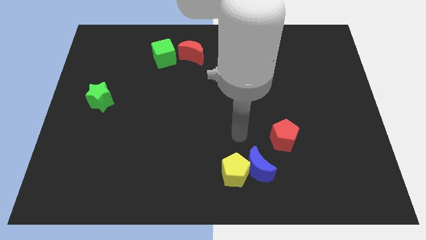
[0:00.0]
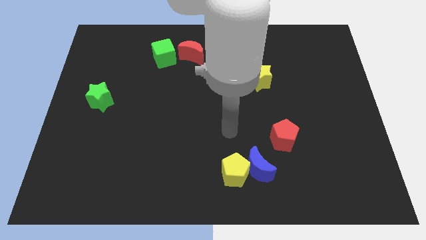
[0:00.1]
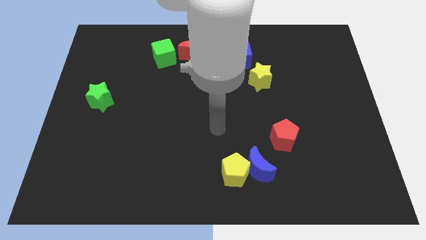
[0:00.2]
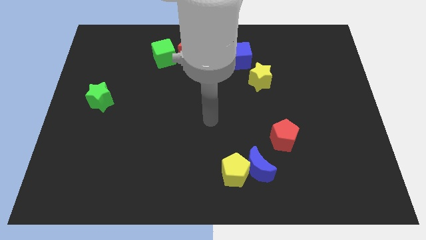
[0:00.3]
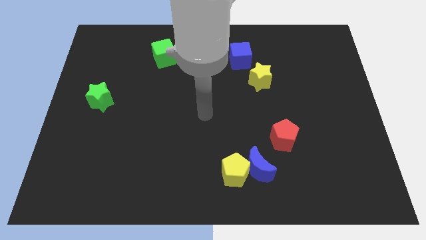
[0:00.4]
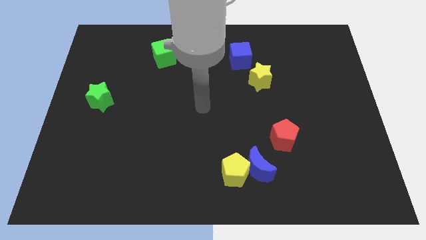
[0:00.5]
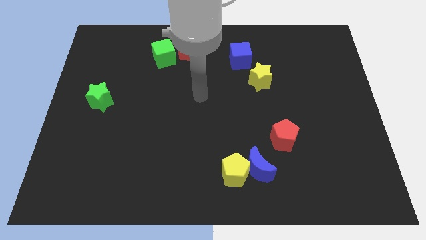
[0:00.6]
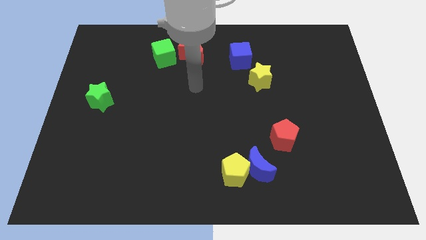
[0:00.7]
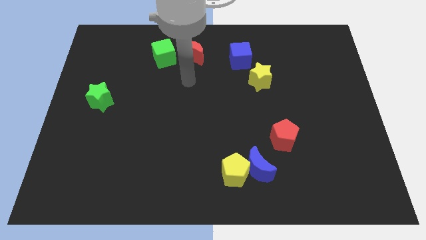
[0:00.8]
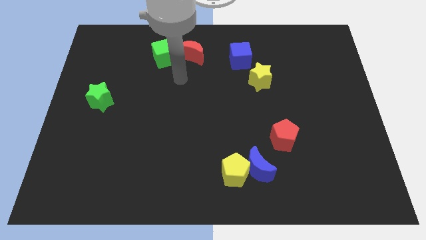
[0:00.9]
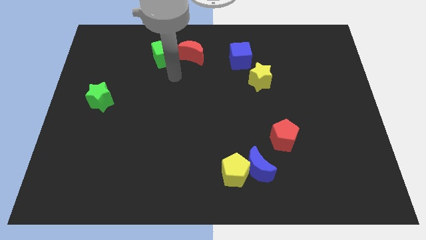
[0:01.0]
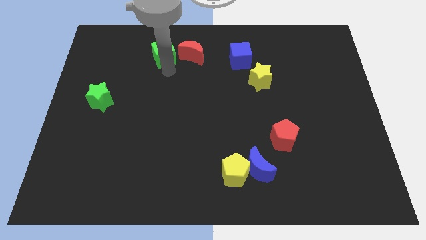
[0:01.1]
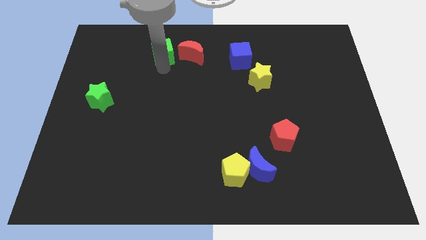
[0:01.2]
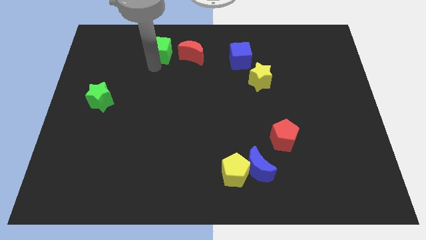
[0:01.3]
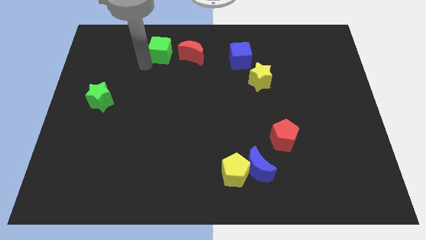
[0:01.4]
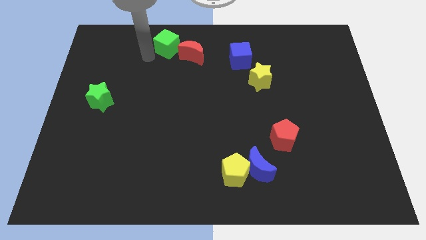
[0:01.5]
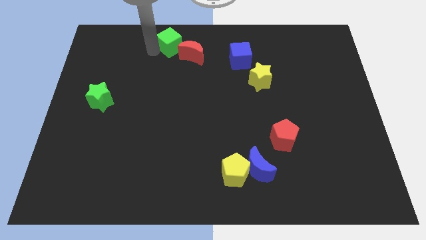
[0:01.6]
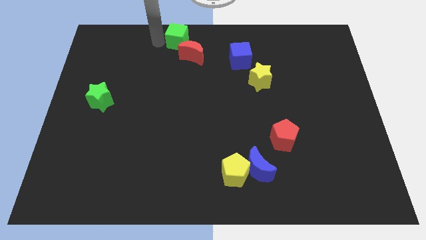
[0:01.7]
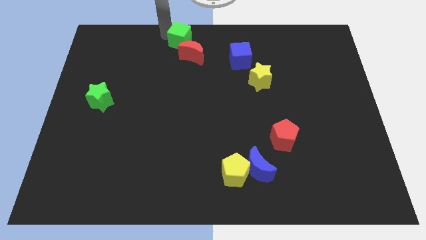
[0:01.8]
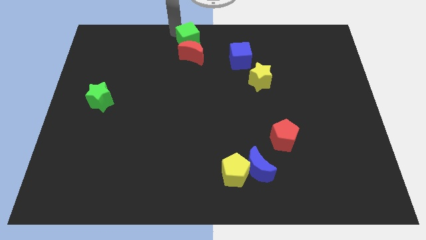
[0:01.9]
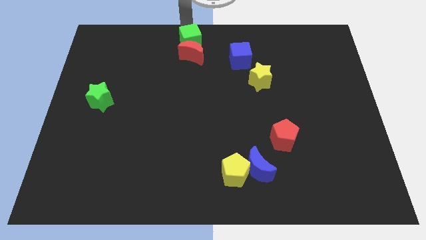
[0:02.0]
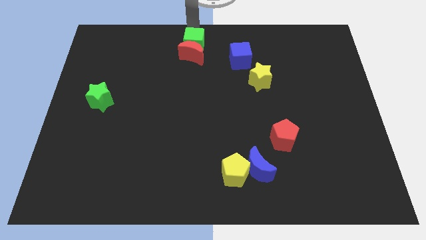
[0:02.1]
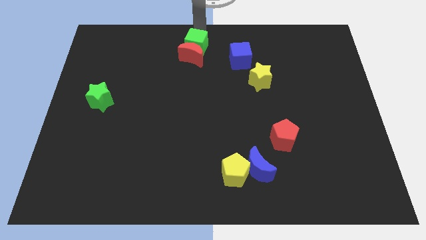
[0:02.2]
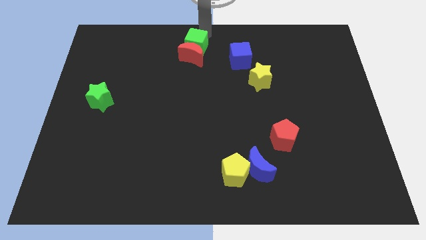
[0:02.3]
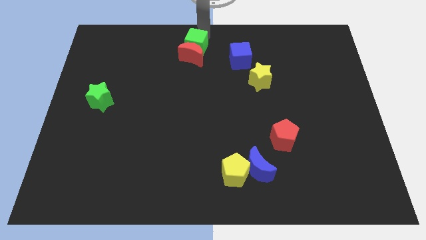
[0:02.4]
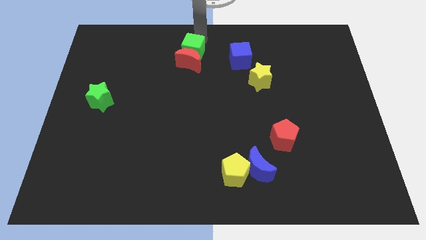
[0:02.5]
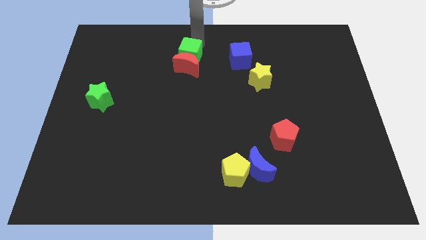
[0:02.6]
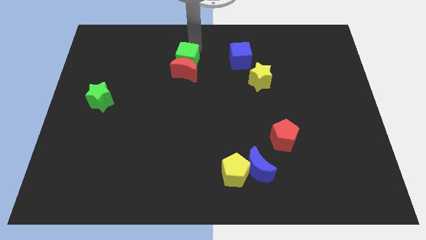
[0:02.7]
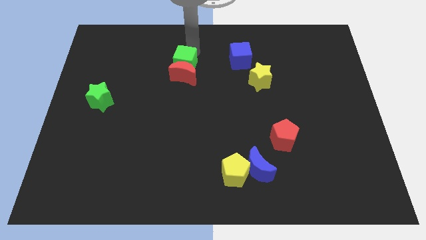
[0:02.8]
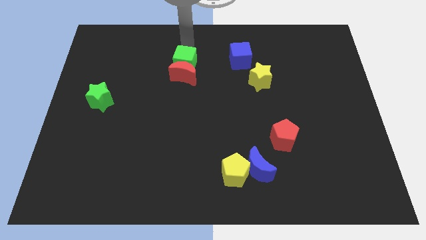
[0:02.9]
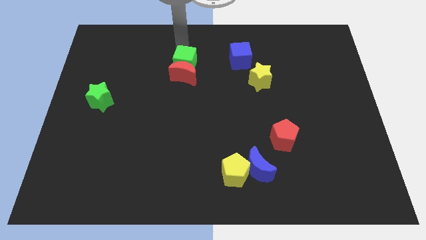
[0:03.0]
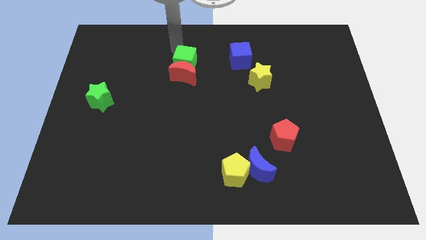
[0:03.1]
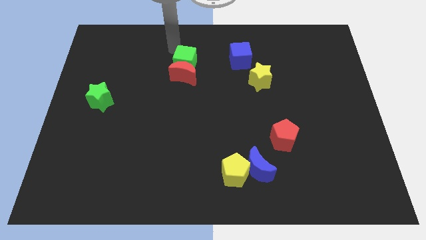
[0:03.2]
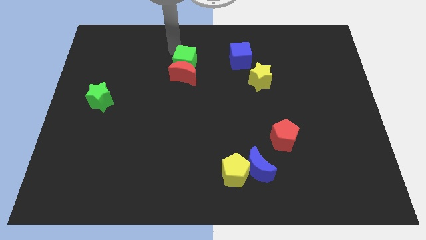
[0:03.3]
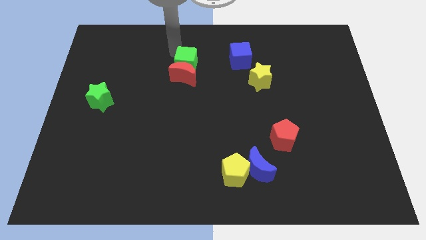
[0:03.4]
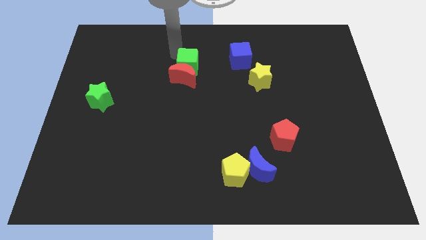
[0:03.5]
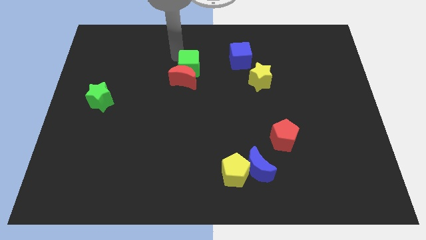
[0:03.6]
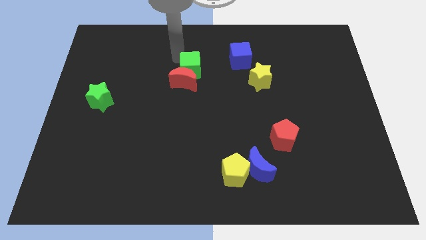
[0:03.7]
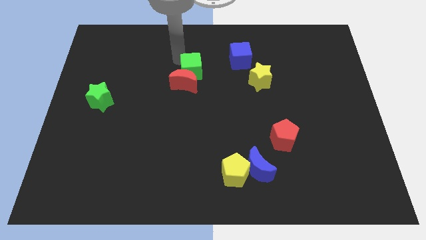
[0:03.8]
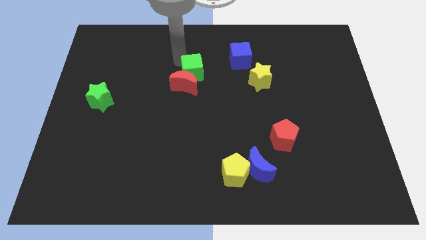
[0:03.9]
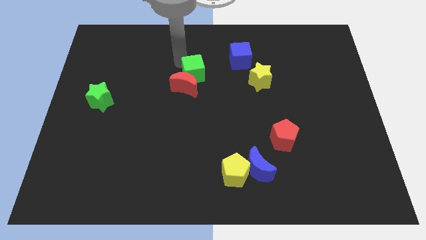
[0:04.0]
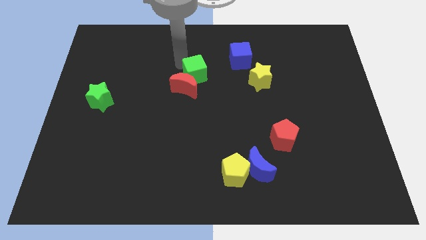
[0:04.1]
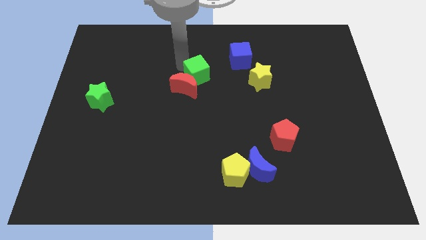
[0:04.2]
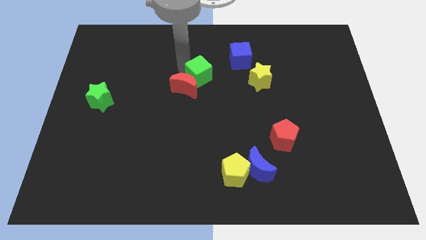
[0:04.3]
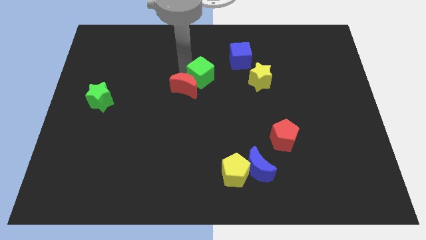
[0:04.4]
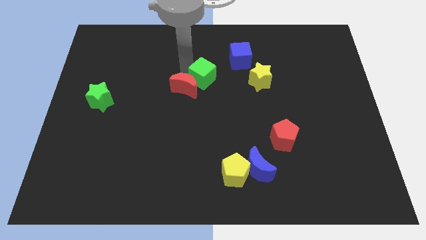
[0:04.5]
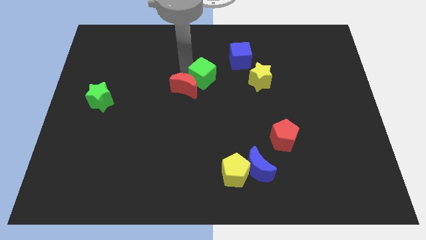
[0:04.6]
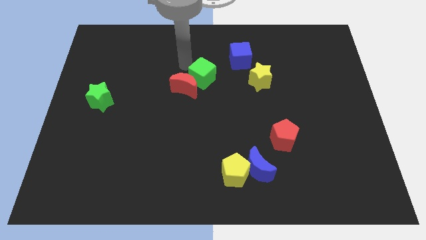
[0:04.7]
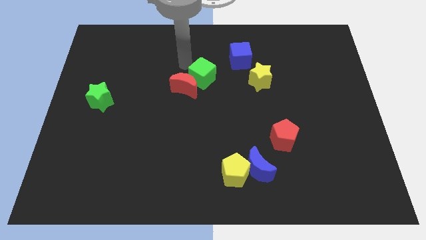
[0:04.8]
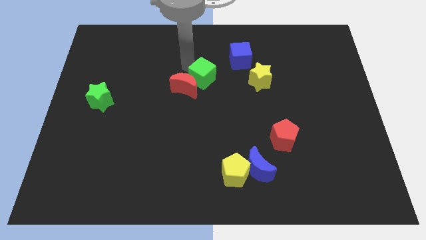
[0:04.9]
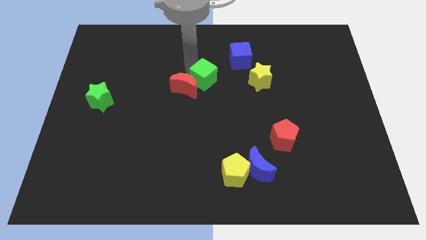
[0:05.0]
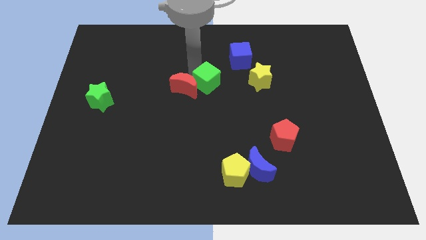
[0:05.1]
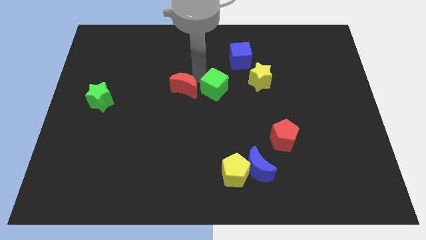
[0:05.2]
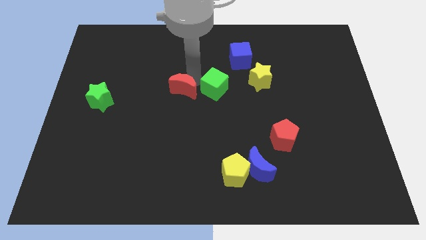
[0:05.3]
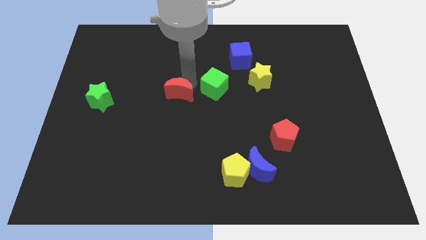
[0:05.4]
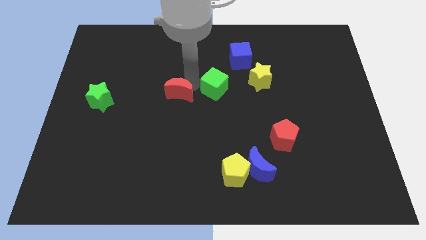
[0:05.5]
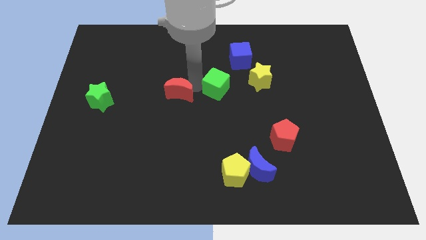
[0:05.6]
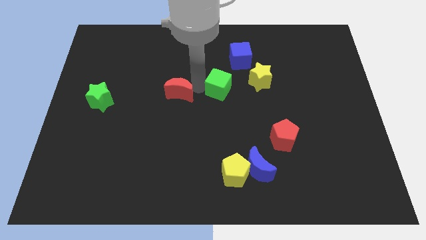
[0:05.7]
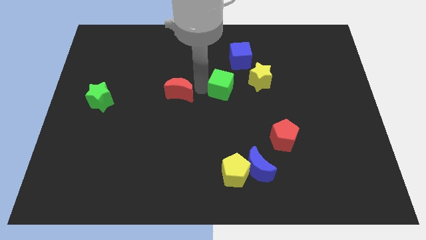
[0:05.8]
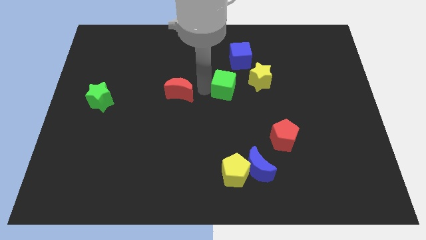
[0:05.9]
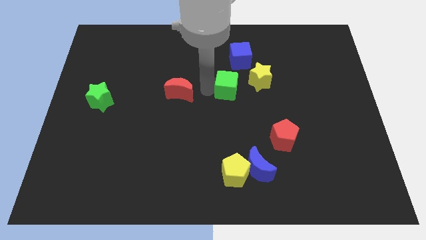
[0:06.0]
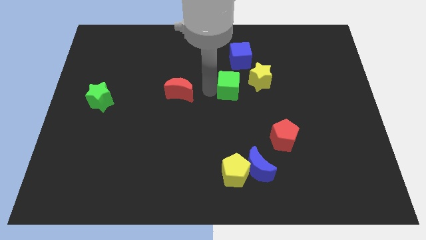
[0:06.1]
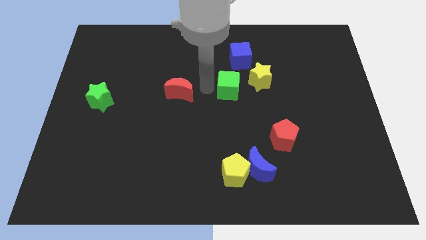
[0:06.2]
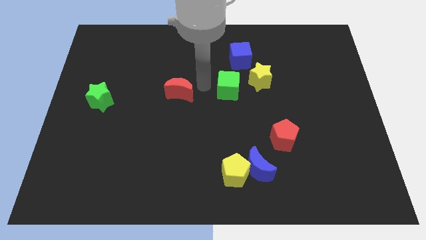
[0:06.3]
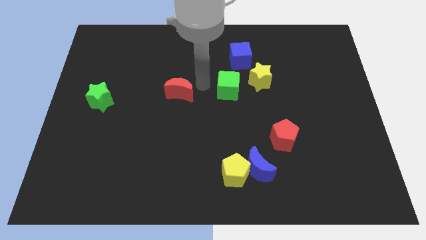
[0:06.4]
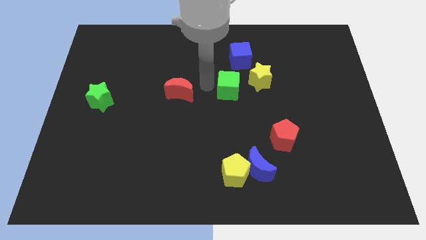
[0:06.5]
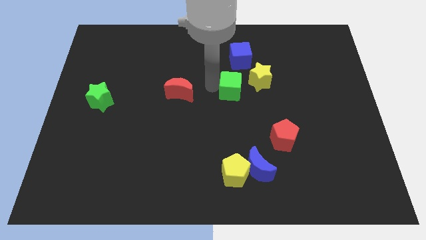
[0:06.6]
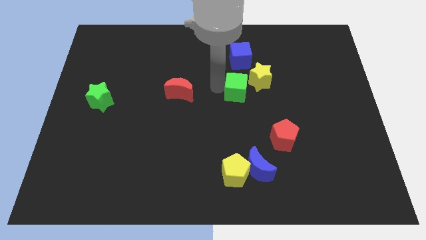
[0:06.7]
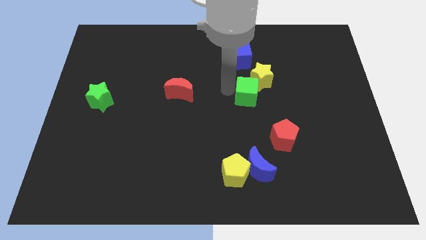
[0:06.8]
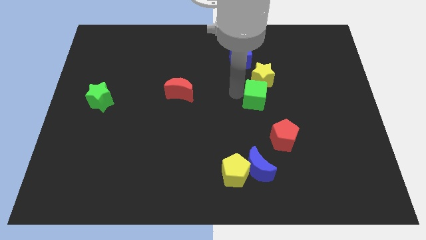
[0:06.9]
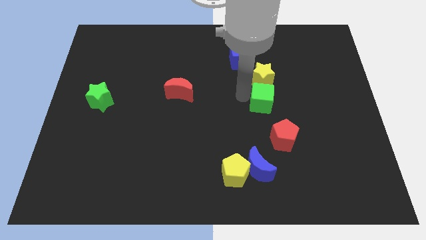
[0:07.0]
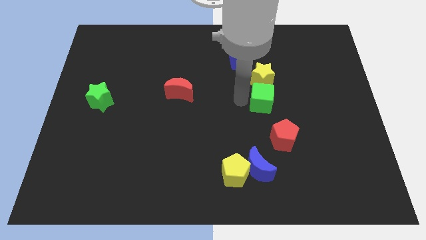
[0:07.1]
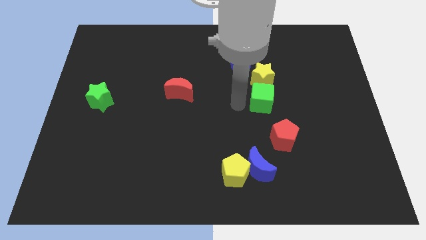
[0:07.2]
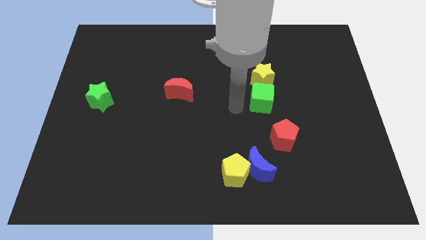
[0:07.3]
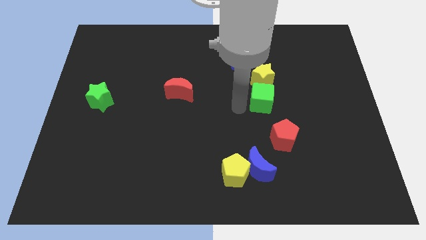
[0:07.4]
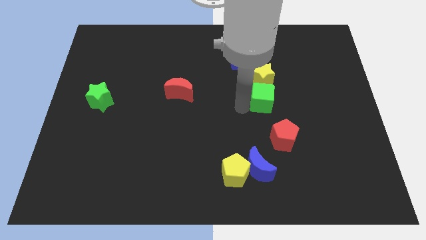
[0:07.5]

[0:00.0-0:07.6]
push the green cube diagonally down and to the right of the yellow star
